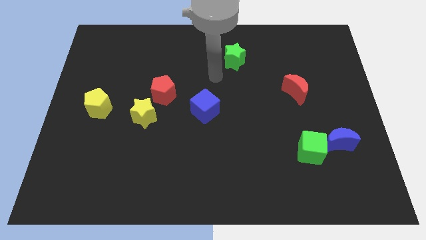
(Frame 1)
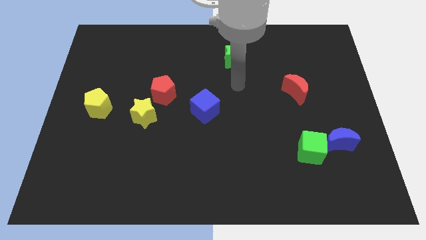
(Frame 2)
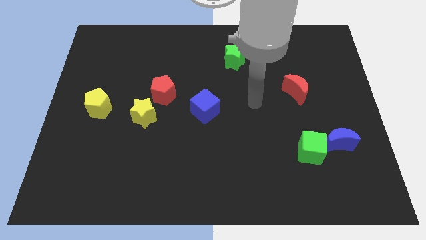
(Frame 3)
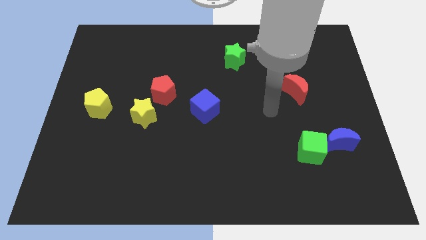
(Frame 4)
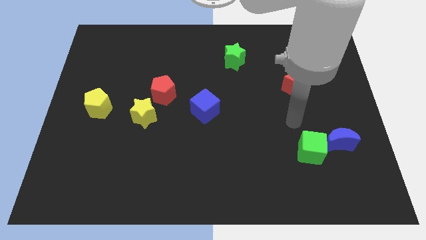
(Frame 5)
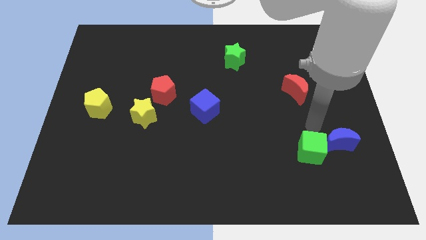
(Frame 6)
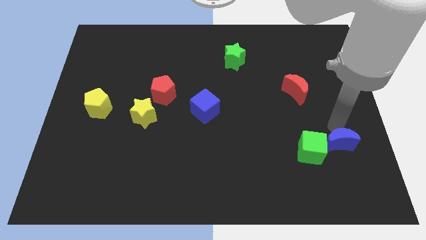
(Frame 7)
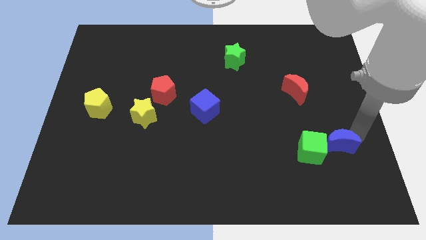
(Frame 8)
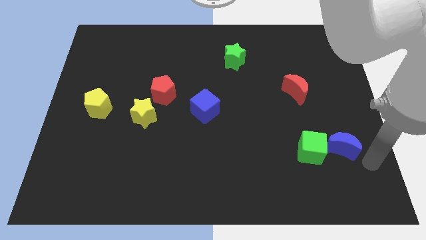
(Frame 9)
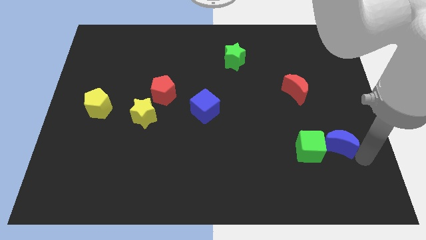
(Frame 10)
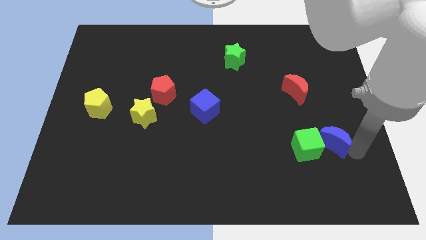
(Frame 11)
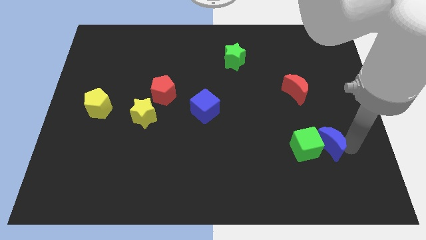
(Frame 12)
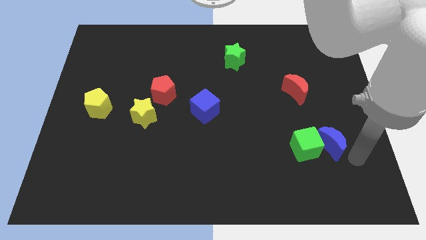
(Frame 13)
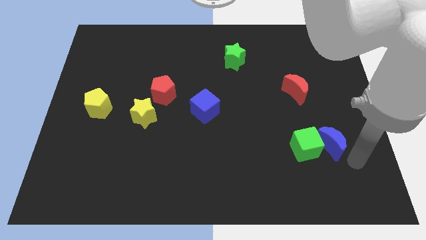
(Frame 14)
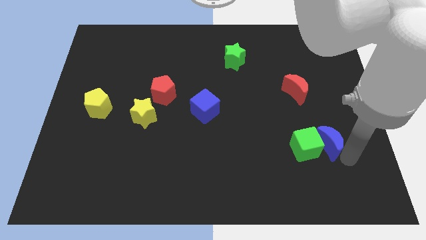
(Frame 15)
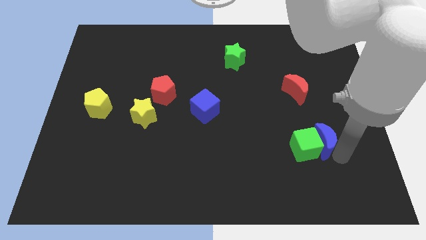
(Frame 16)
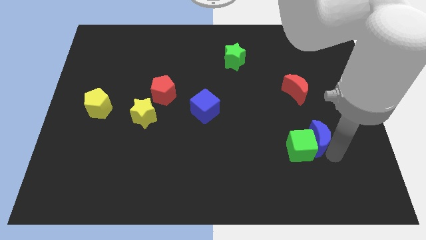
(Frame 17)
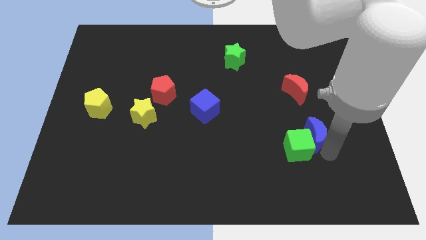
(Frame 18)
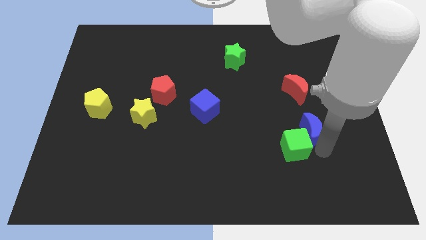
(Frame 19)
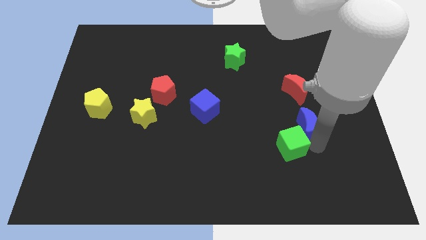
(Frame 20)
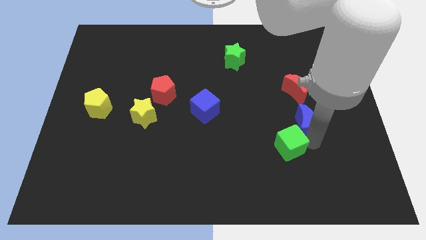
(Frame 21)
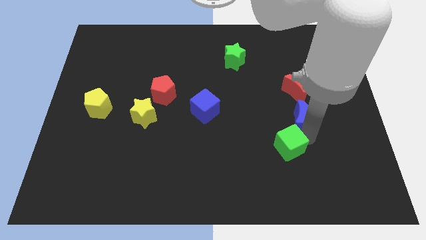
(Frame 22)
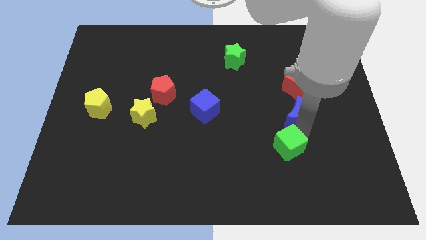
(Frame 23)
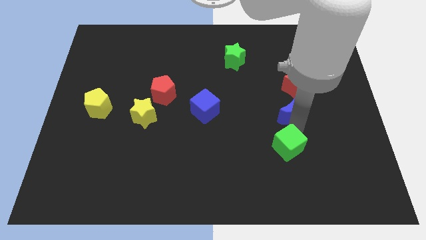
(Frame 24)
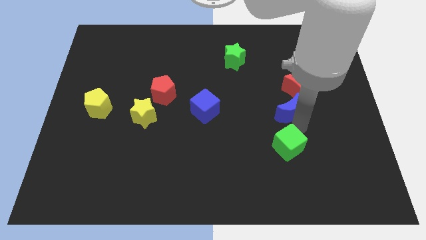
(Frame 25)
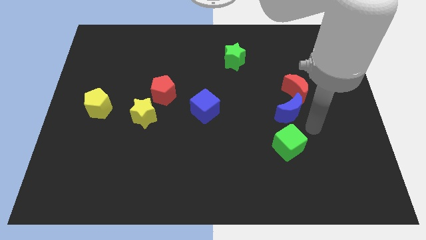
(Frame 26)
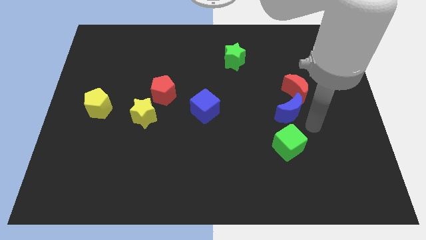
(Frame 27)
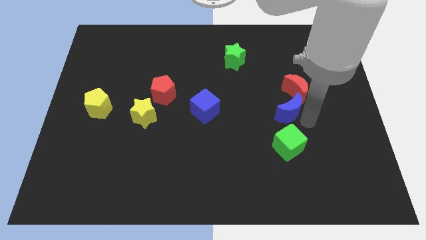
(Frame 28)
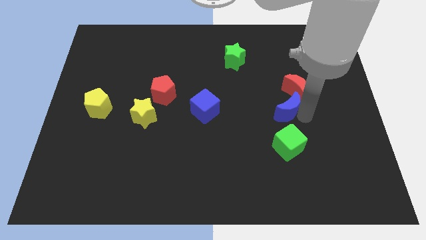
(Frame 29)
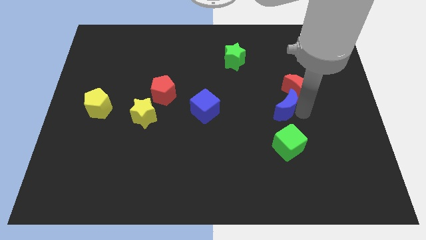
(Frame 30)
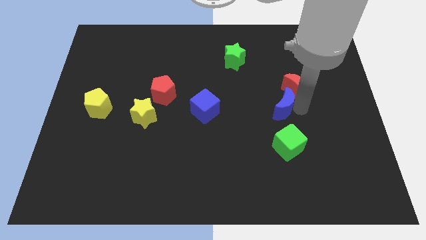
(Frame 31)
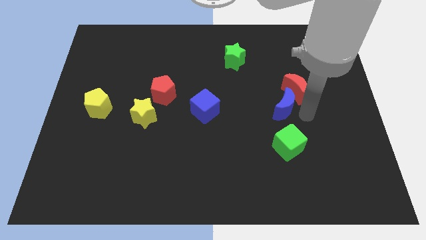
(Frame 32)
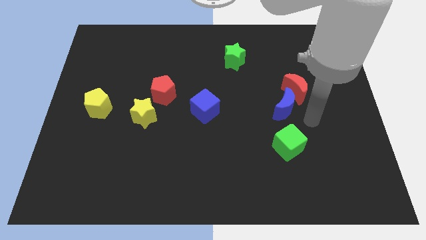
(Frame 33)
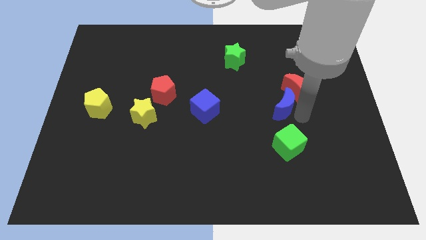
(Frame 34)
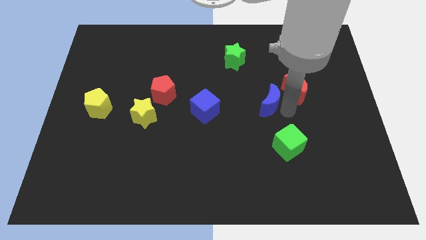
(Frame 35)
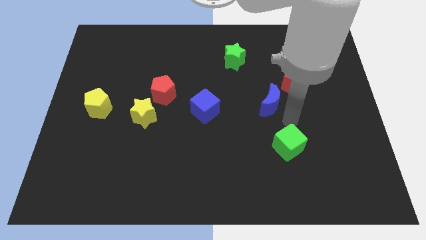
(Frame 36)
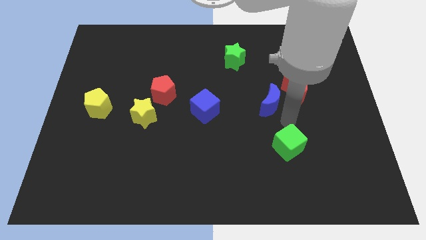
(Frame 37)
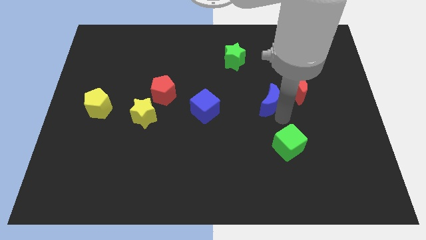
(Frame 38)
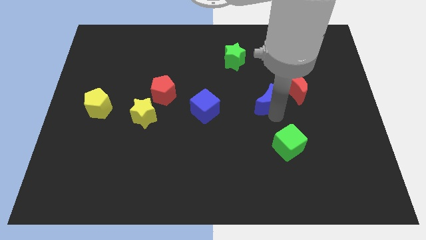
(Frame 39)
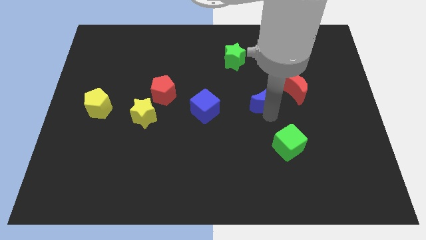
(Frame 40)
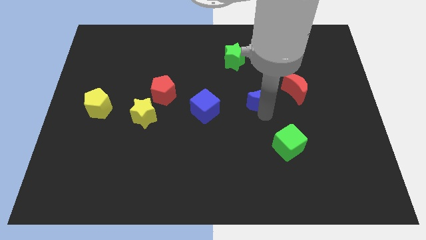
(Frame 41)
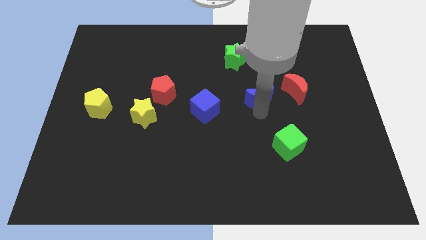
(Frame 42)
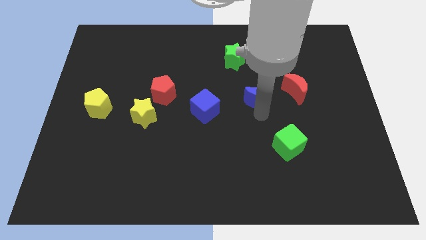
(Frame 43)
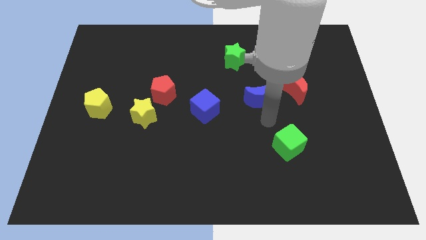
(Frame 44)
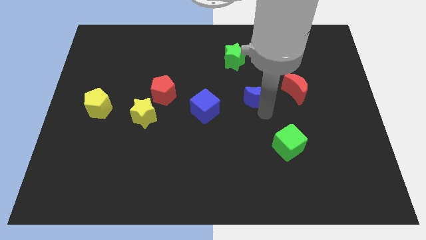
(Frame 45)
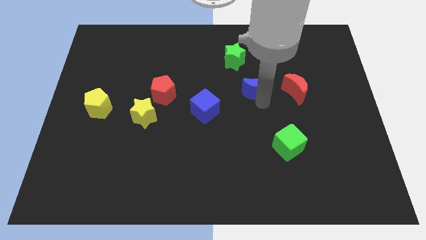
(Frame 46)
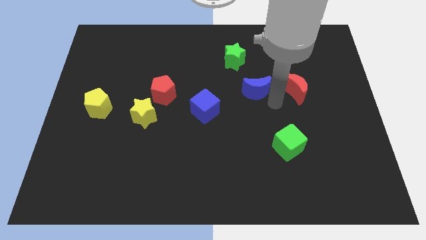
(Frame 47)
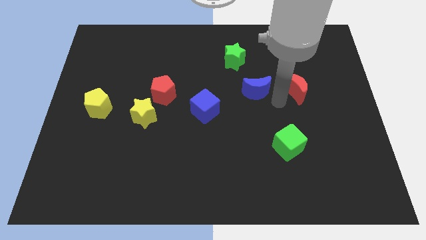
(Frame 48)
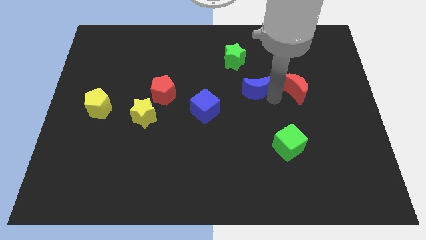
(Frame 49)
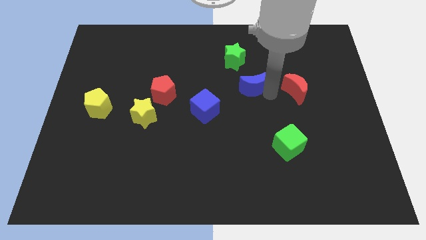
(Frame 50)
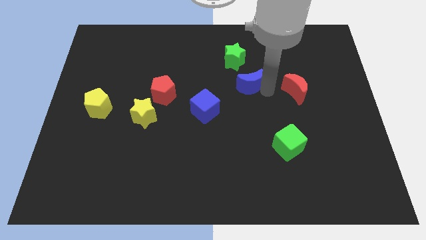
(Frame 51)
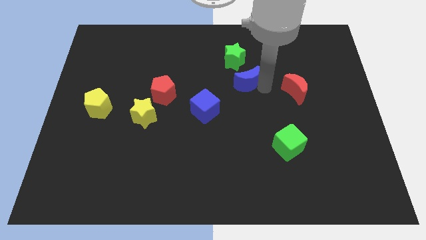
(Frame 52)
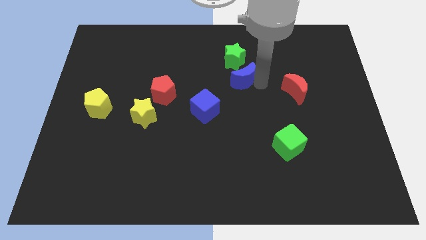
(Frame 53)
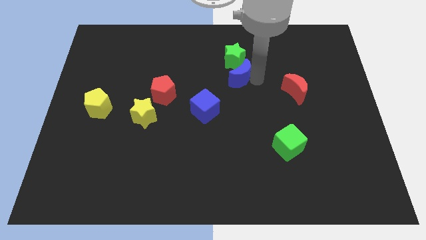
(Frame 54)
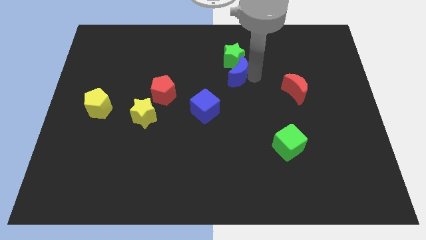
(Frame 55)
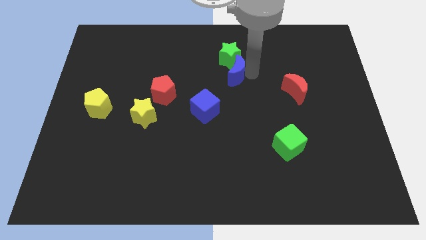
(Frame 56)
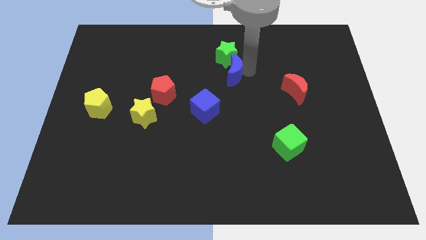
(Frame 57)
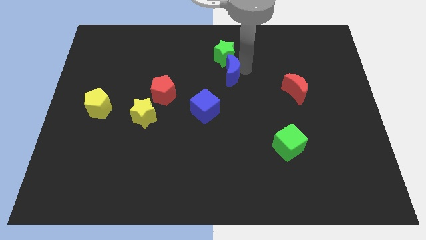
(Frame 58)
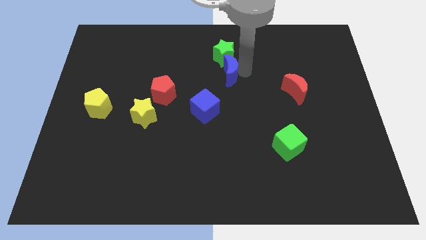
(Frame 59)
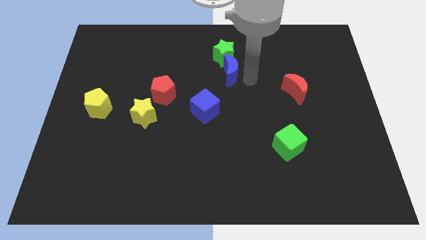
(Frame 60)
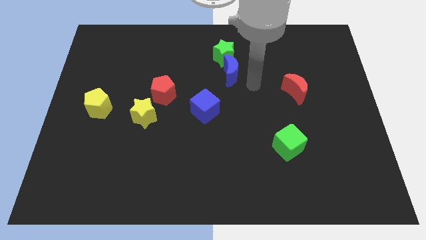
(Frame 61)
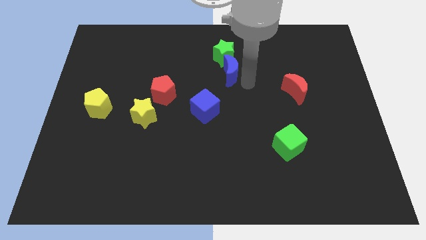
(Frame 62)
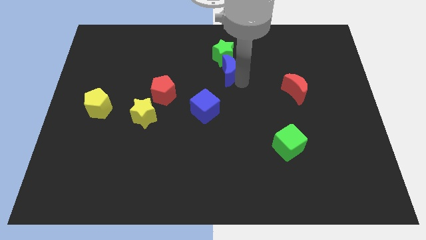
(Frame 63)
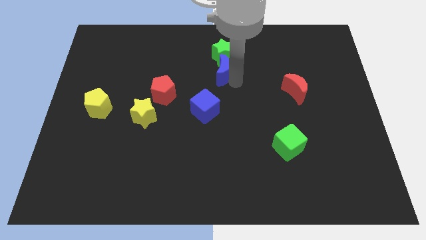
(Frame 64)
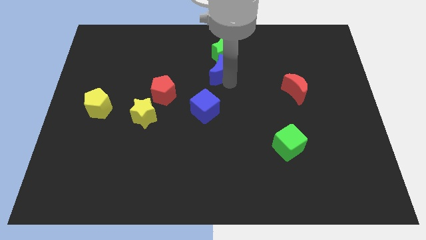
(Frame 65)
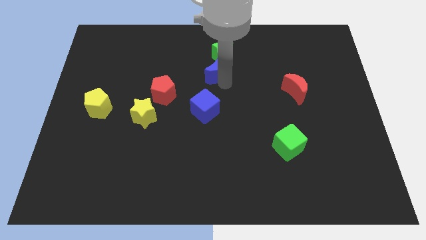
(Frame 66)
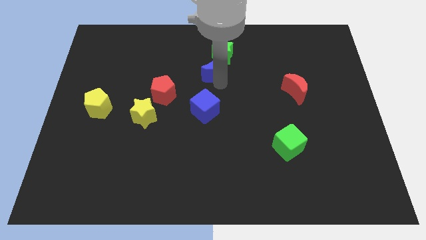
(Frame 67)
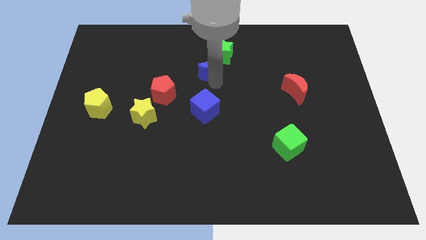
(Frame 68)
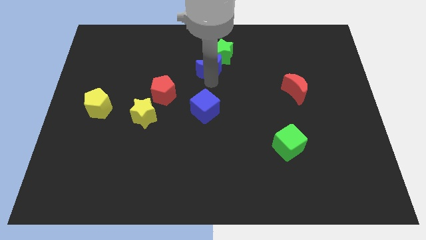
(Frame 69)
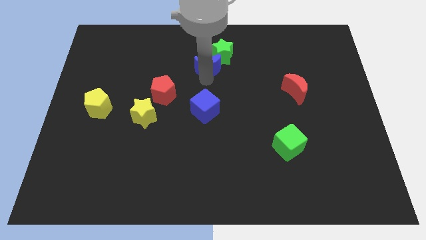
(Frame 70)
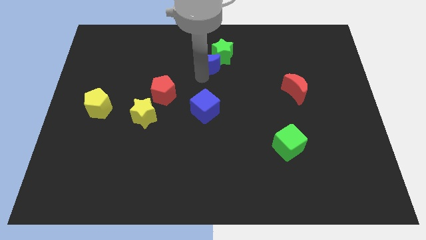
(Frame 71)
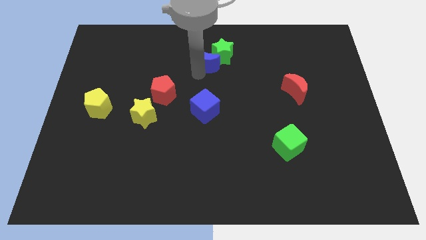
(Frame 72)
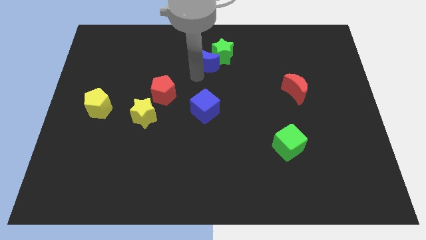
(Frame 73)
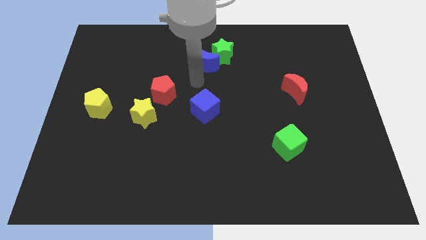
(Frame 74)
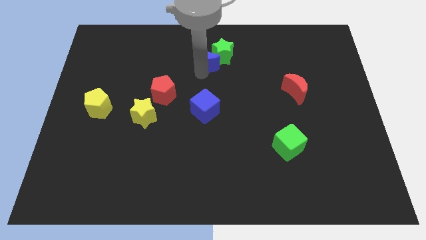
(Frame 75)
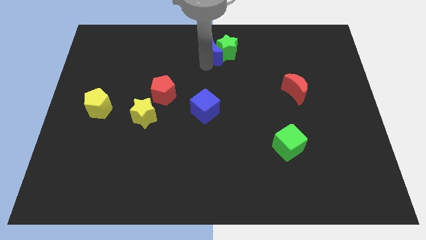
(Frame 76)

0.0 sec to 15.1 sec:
slide the blue moon to the top side
